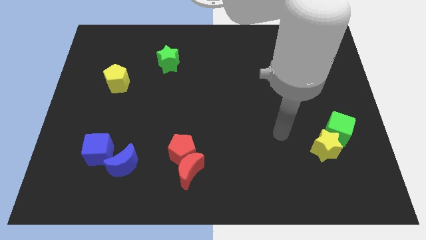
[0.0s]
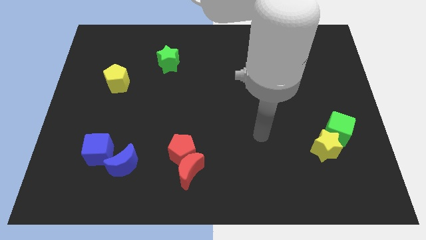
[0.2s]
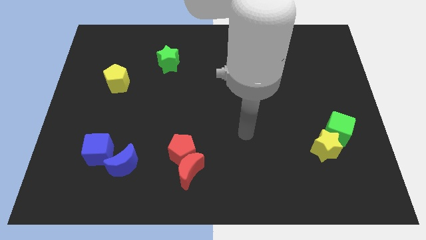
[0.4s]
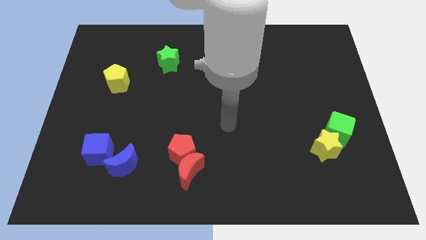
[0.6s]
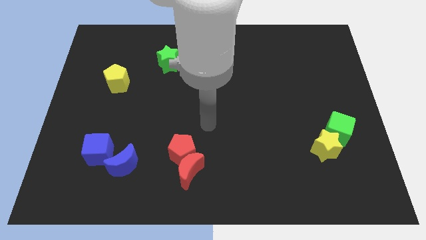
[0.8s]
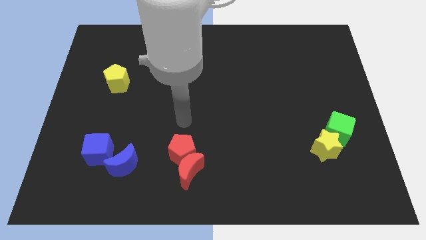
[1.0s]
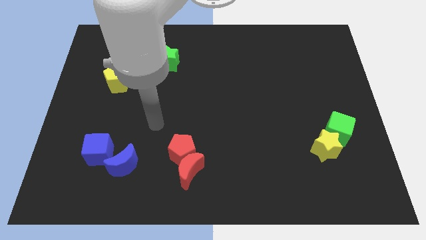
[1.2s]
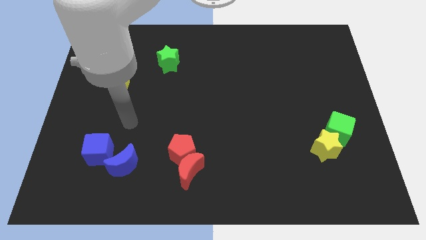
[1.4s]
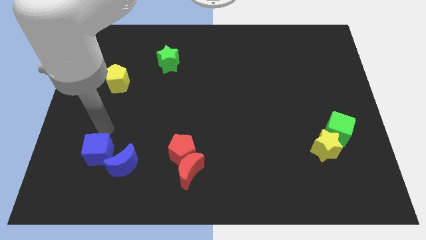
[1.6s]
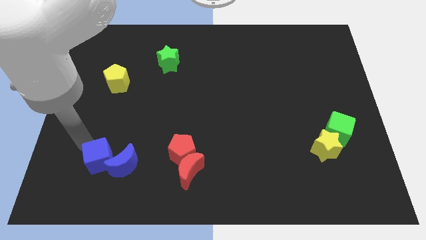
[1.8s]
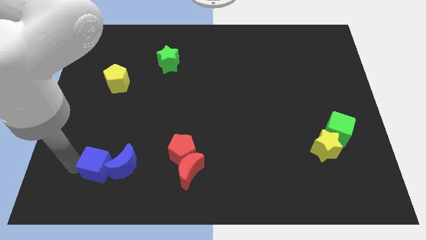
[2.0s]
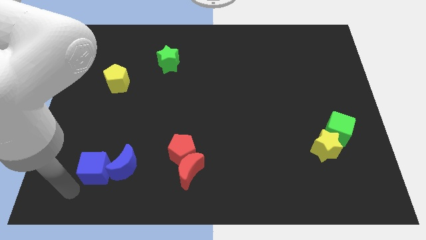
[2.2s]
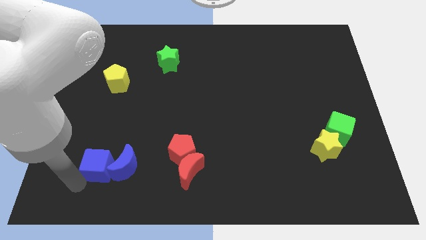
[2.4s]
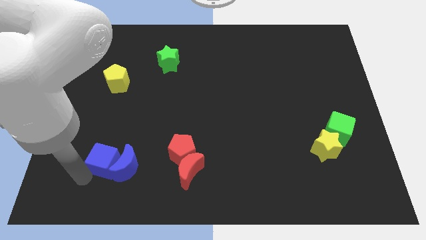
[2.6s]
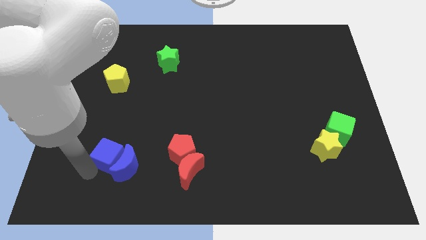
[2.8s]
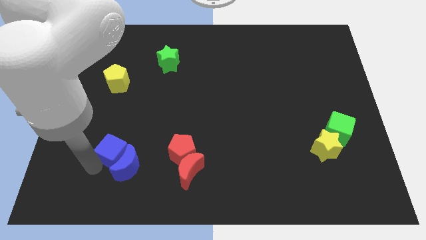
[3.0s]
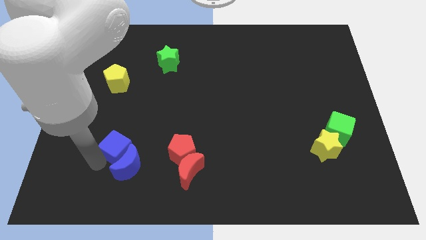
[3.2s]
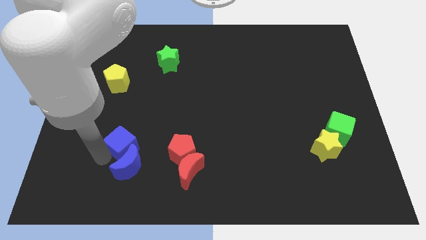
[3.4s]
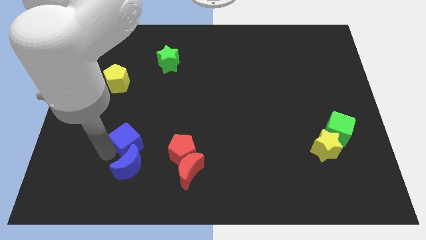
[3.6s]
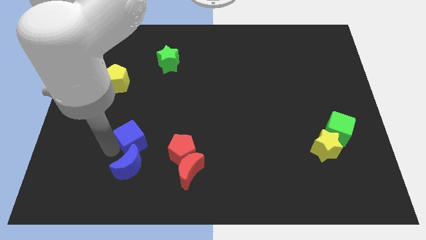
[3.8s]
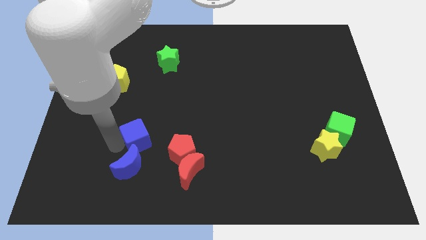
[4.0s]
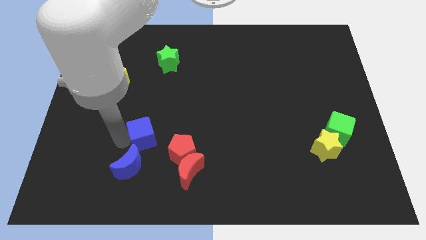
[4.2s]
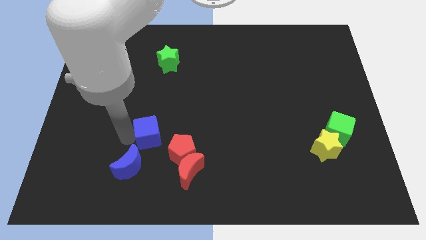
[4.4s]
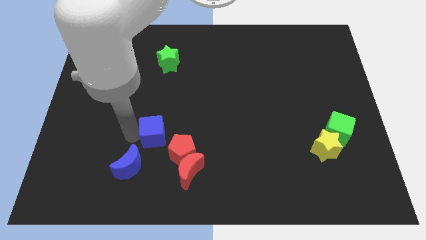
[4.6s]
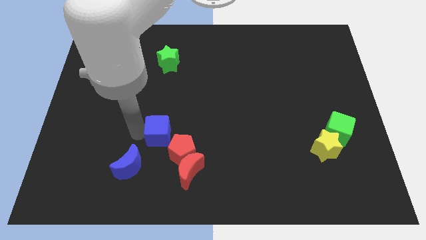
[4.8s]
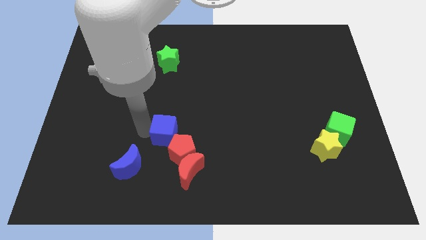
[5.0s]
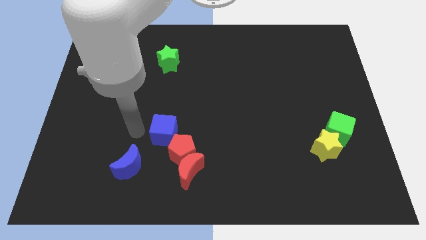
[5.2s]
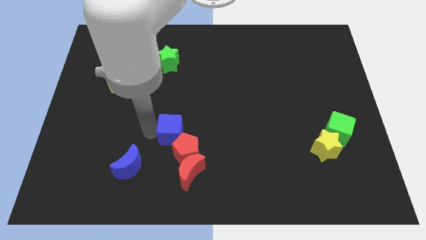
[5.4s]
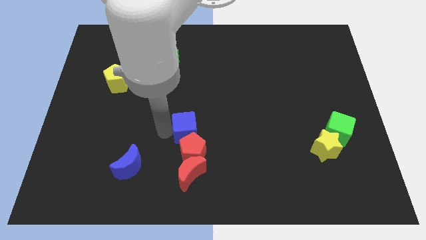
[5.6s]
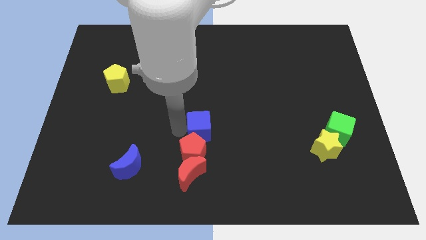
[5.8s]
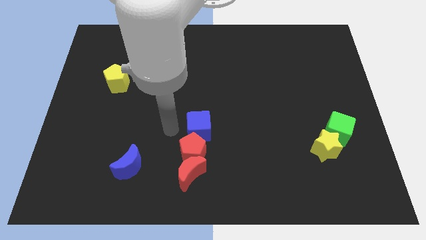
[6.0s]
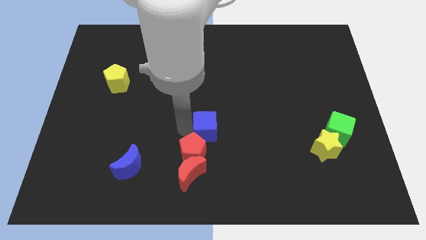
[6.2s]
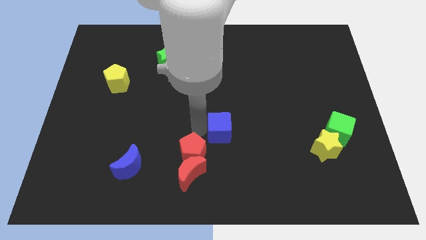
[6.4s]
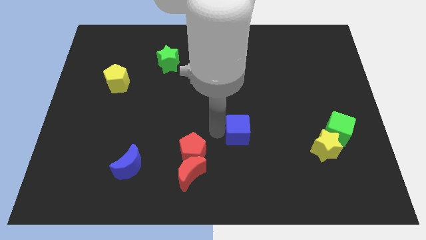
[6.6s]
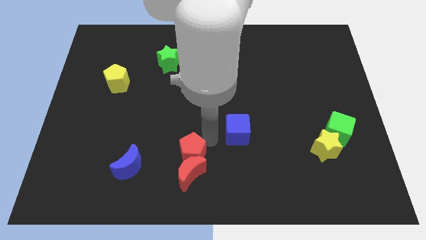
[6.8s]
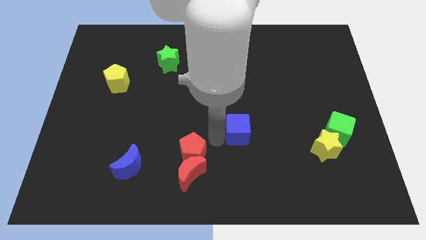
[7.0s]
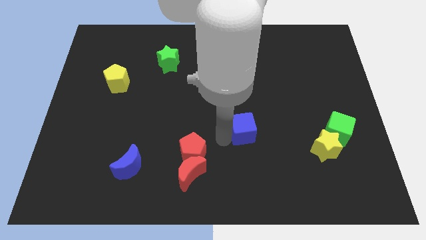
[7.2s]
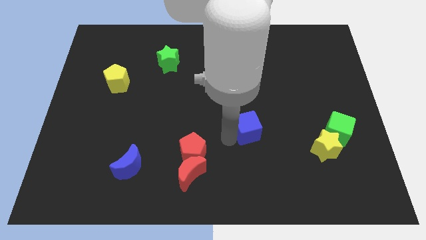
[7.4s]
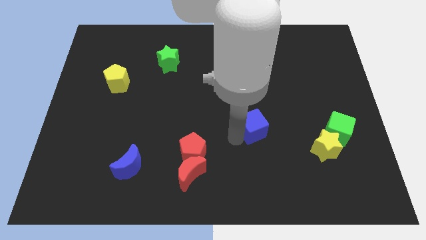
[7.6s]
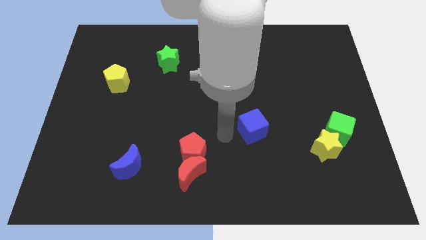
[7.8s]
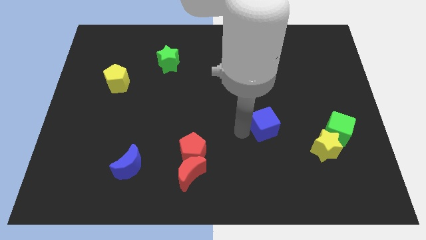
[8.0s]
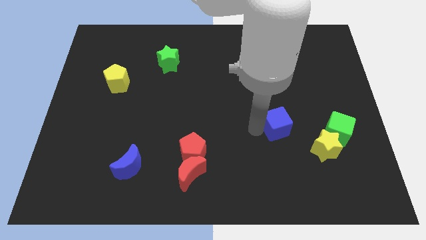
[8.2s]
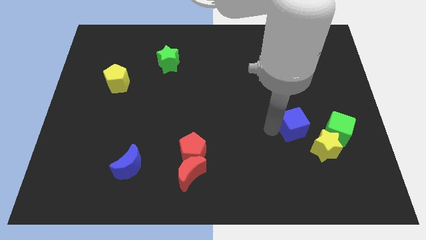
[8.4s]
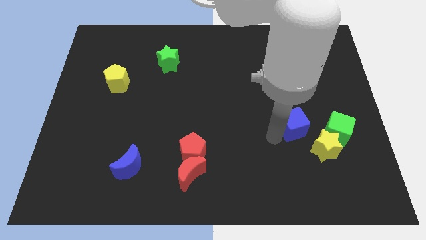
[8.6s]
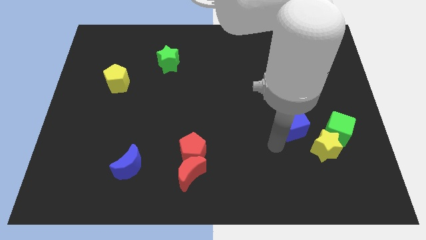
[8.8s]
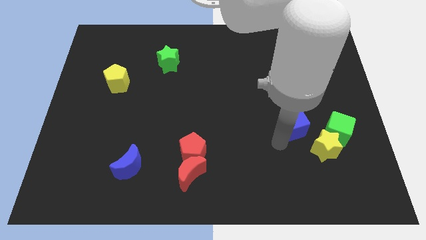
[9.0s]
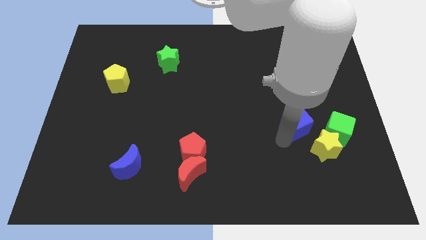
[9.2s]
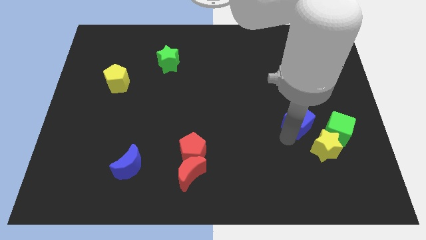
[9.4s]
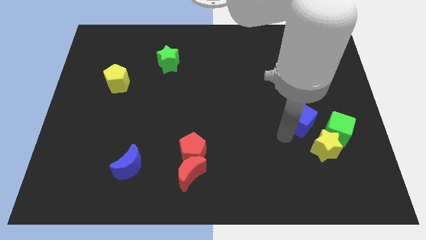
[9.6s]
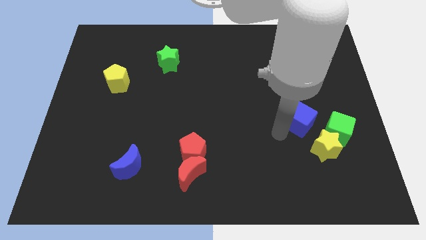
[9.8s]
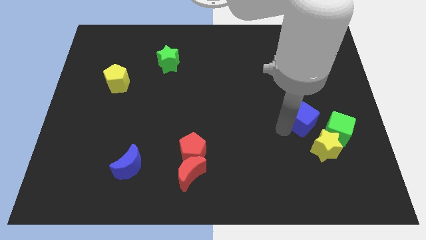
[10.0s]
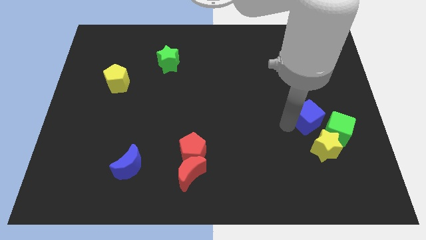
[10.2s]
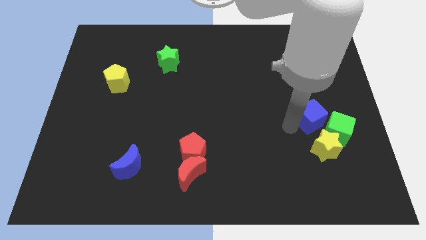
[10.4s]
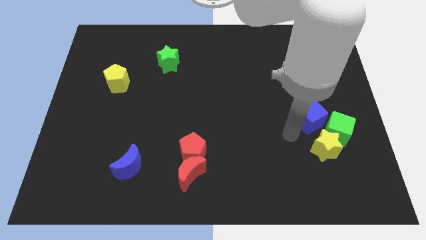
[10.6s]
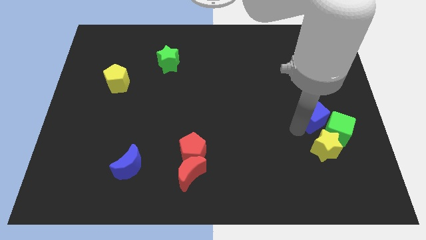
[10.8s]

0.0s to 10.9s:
move the blue cube to the green cube

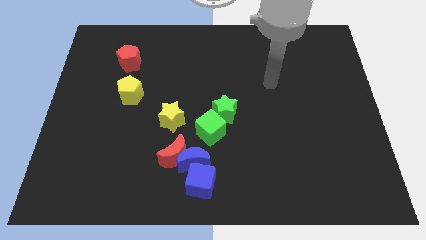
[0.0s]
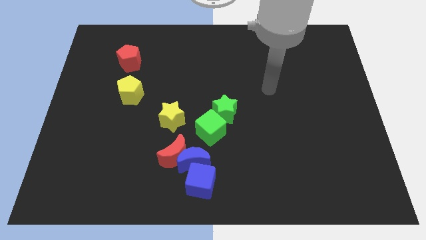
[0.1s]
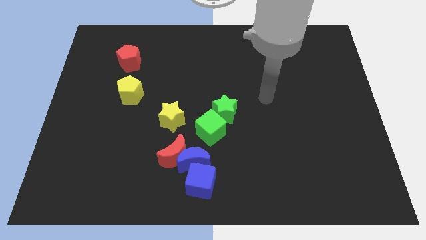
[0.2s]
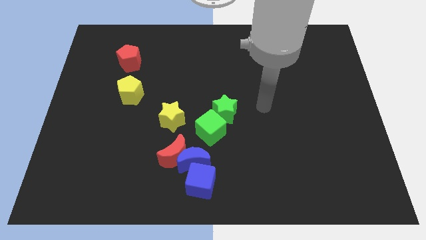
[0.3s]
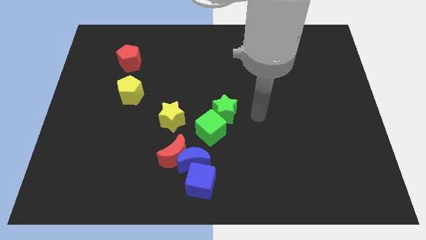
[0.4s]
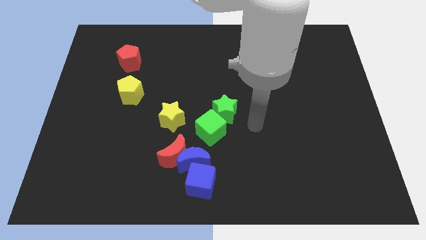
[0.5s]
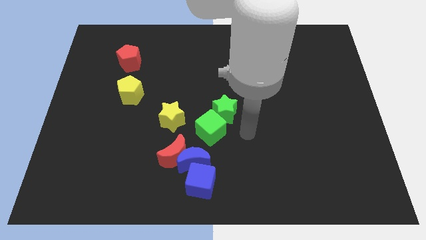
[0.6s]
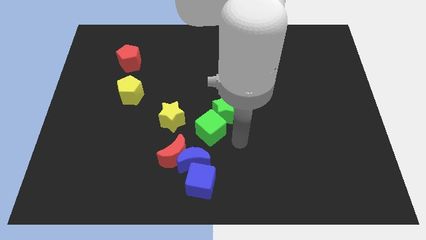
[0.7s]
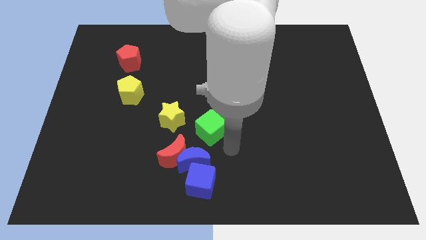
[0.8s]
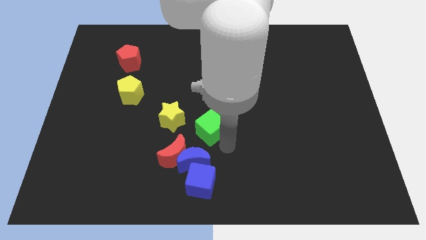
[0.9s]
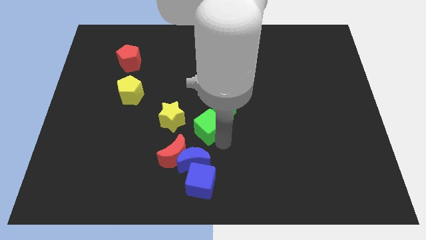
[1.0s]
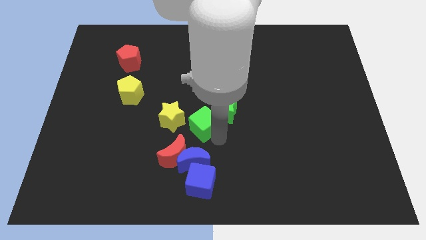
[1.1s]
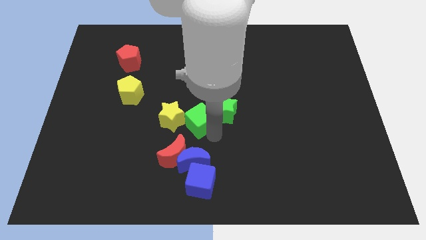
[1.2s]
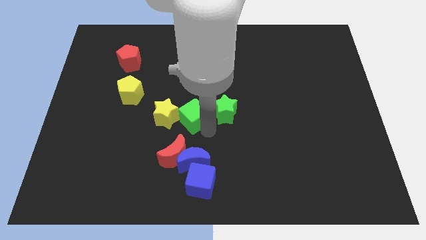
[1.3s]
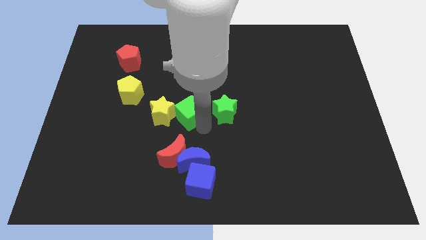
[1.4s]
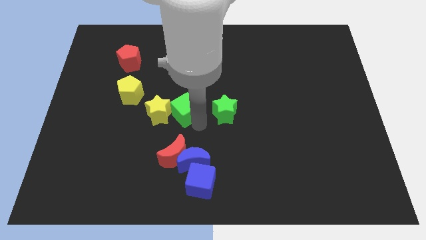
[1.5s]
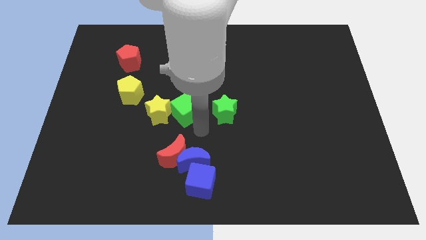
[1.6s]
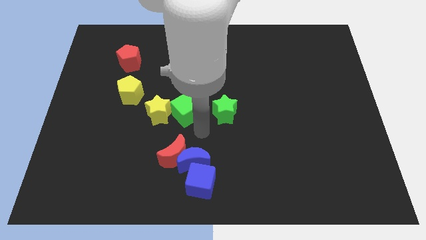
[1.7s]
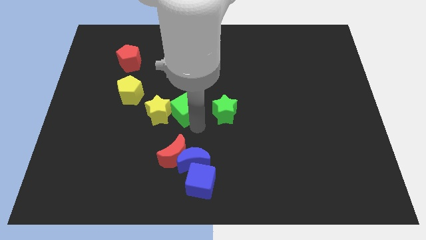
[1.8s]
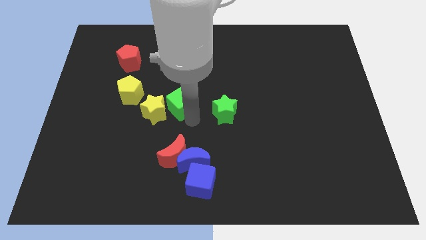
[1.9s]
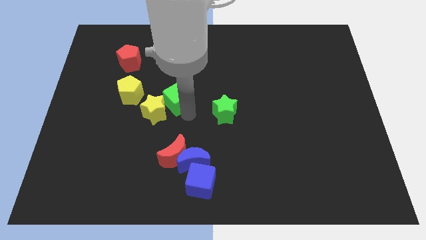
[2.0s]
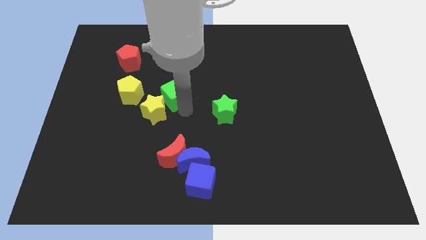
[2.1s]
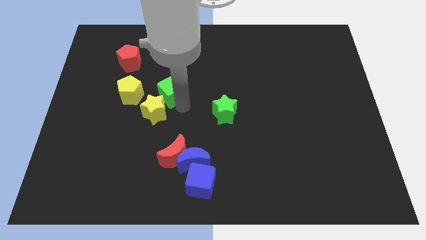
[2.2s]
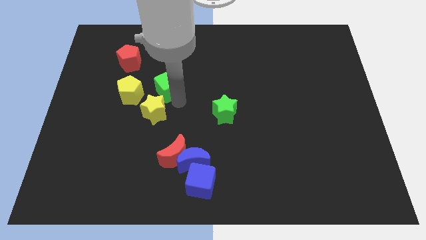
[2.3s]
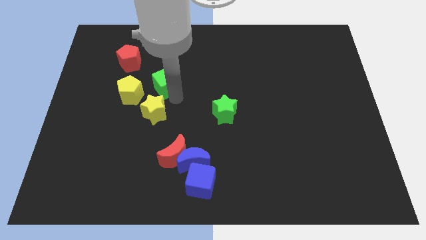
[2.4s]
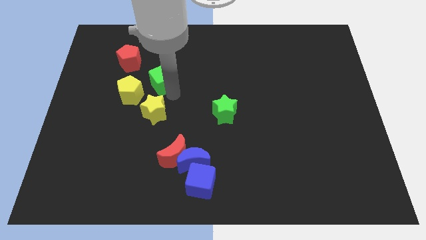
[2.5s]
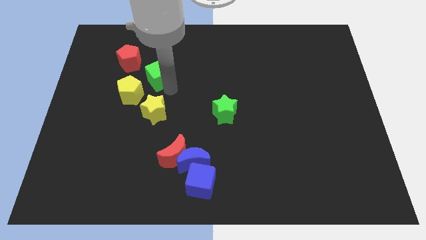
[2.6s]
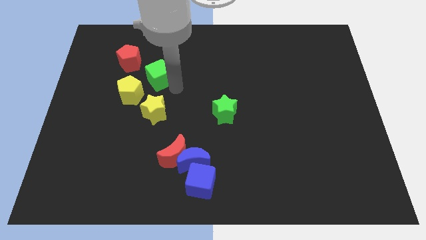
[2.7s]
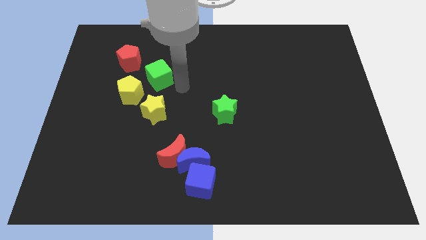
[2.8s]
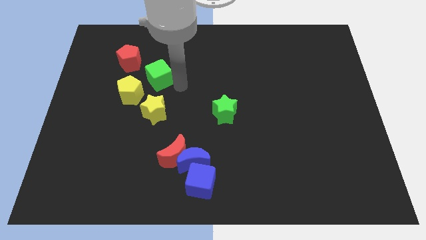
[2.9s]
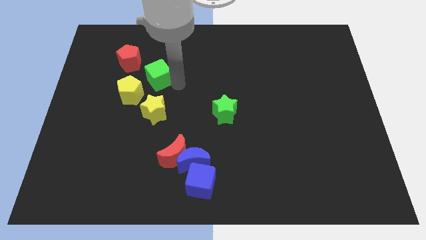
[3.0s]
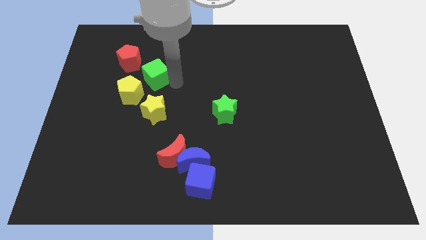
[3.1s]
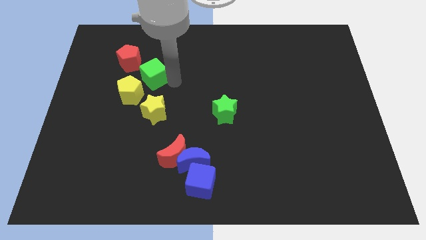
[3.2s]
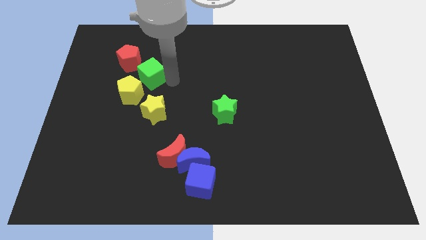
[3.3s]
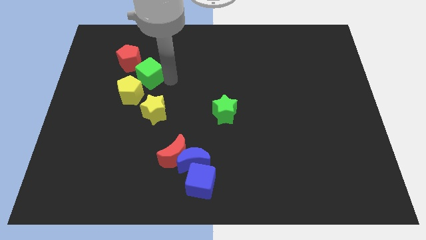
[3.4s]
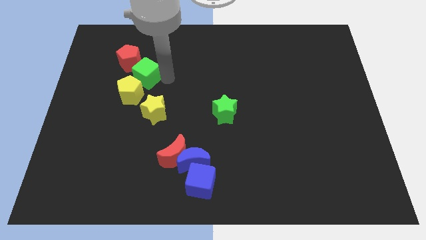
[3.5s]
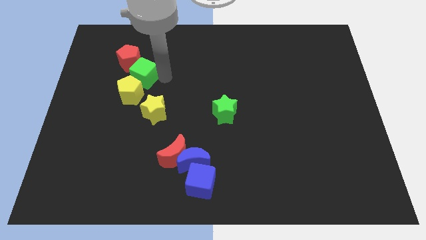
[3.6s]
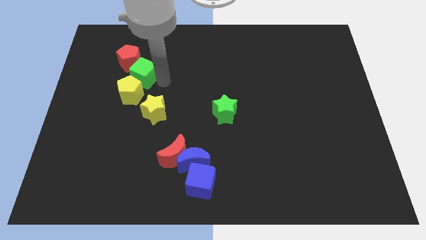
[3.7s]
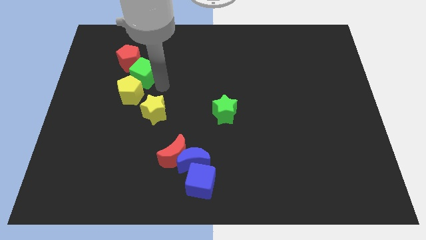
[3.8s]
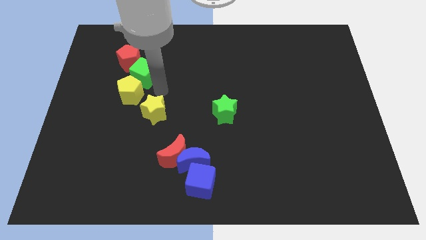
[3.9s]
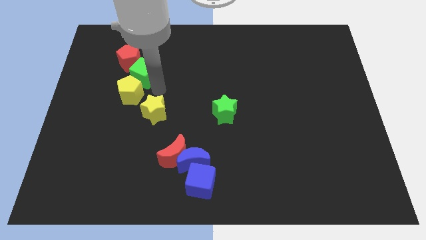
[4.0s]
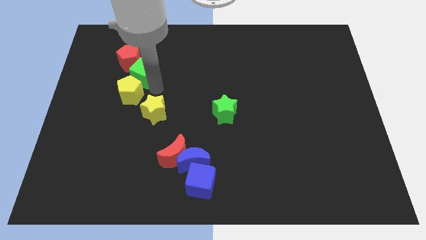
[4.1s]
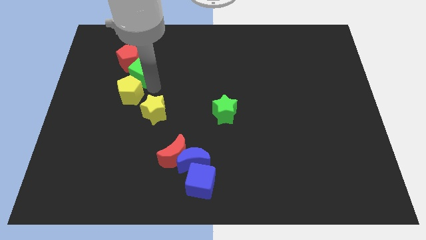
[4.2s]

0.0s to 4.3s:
put the green cube to the red pentagon
